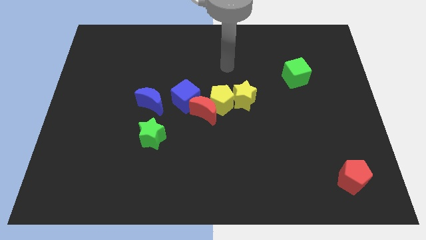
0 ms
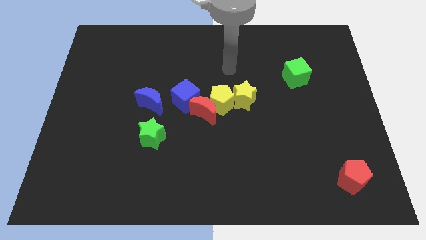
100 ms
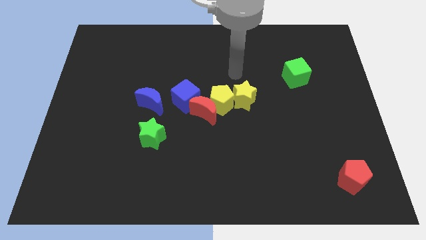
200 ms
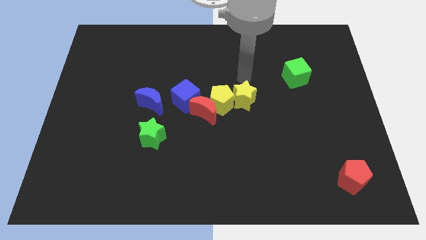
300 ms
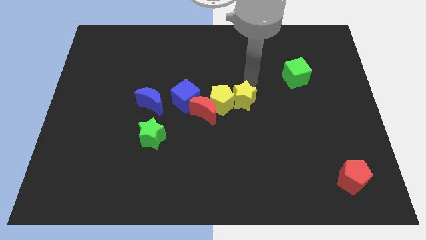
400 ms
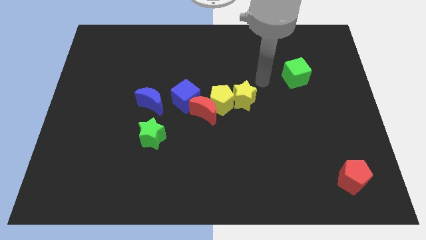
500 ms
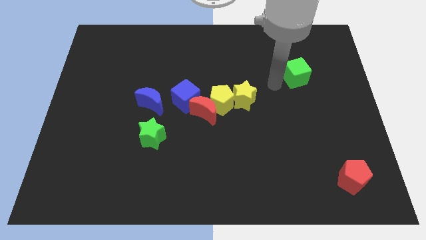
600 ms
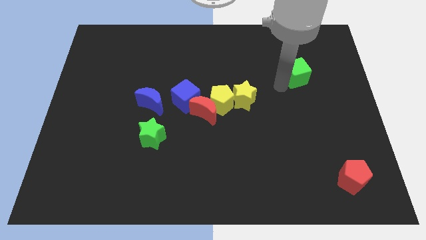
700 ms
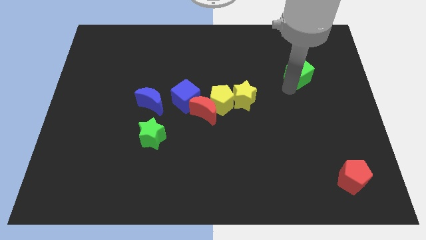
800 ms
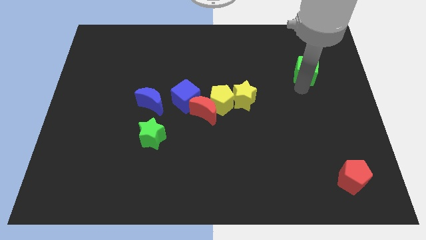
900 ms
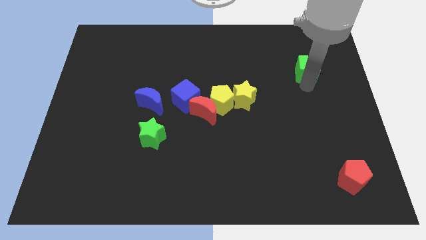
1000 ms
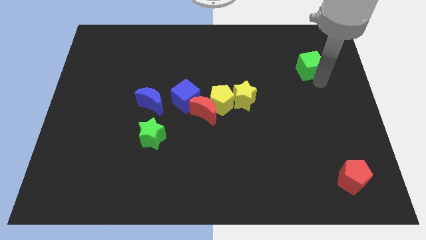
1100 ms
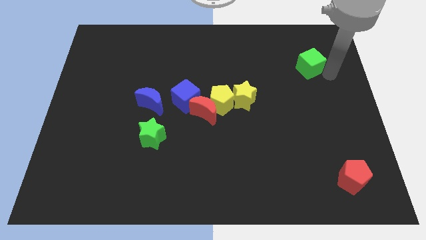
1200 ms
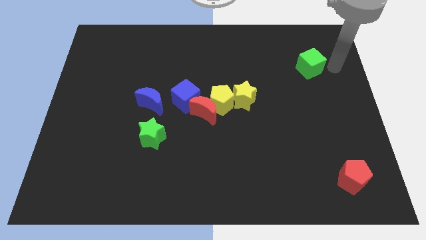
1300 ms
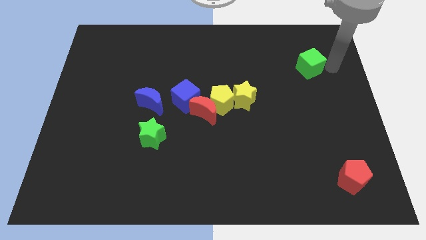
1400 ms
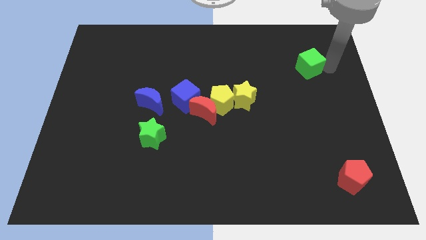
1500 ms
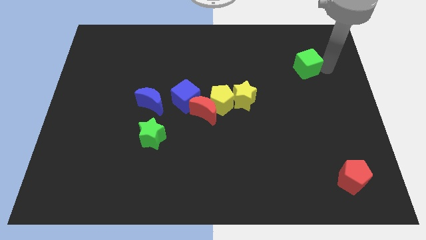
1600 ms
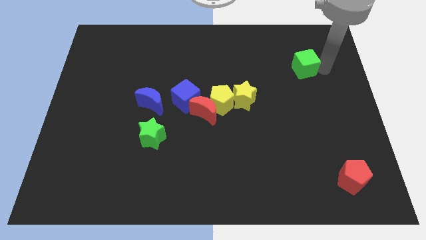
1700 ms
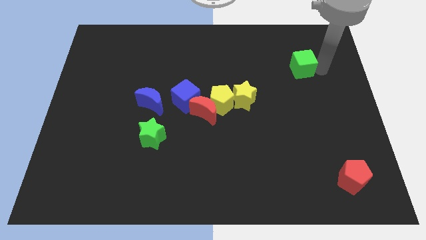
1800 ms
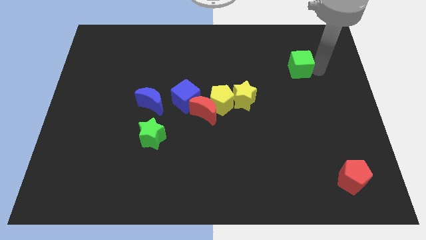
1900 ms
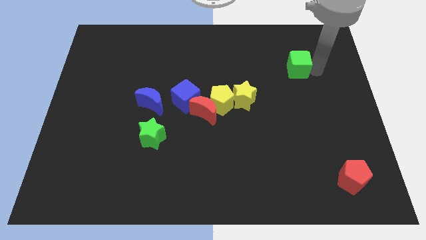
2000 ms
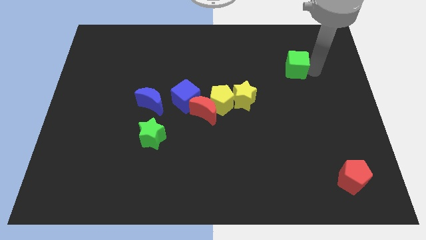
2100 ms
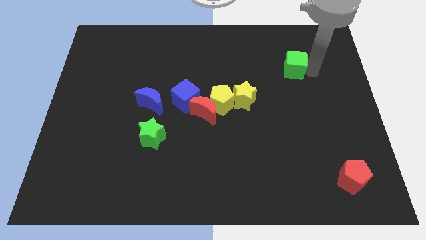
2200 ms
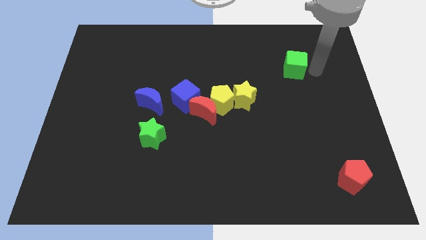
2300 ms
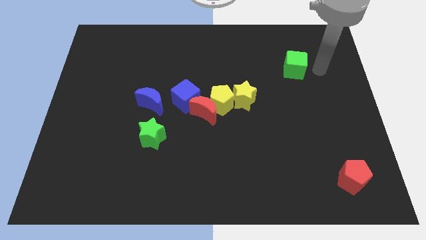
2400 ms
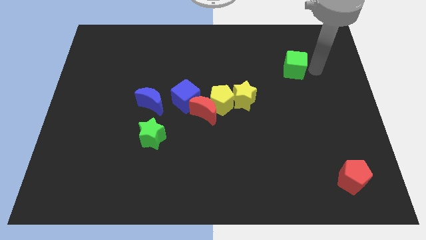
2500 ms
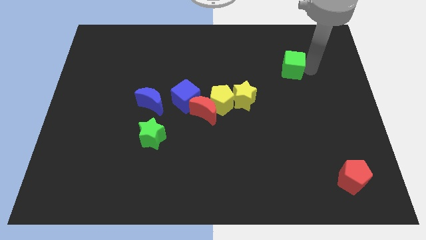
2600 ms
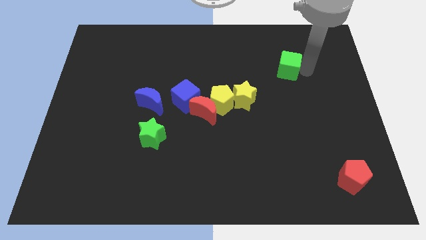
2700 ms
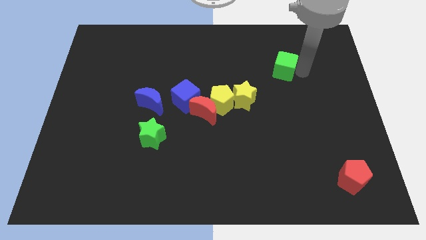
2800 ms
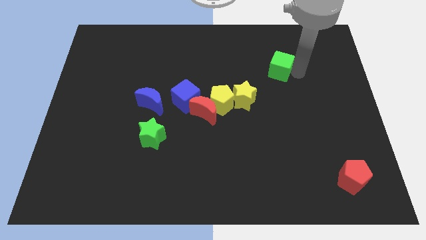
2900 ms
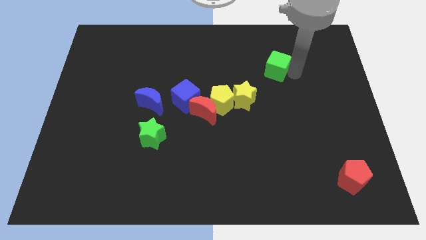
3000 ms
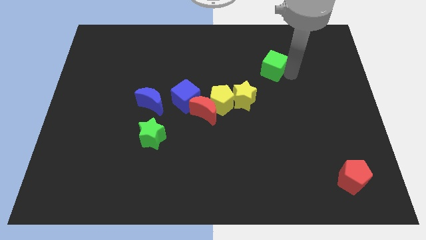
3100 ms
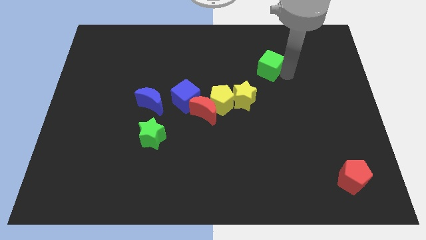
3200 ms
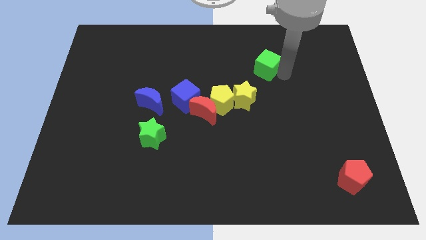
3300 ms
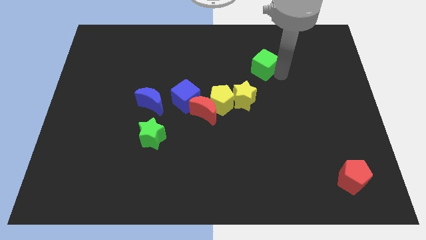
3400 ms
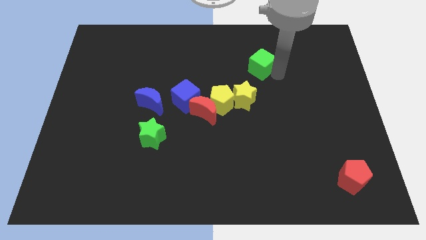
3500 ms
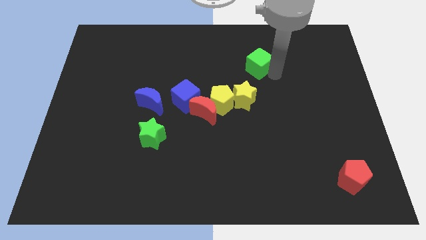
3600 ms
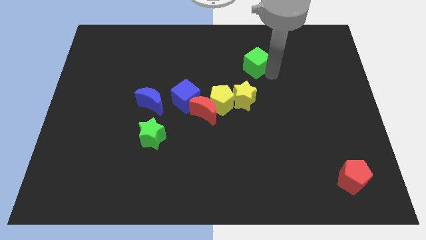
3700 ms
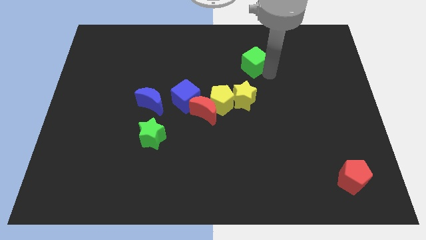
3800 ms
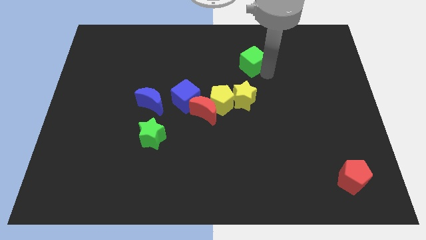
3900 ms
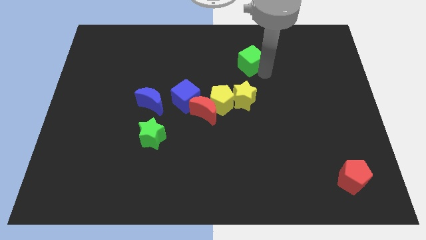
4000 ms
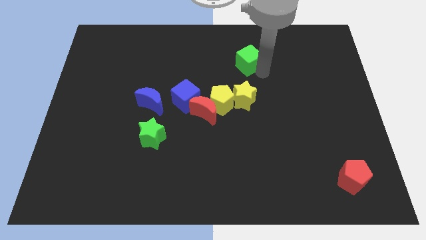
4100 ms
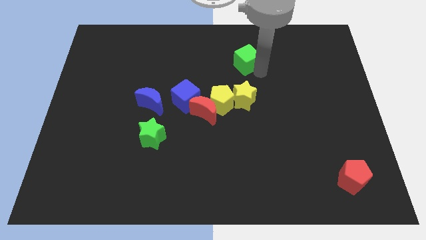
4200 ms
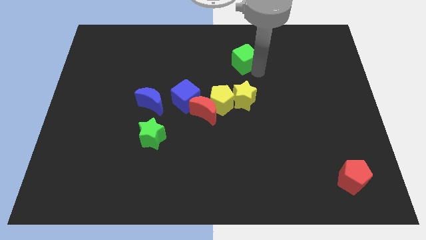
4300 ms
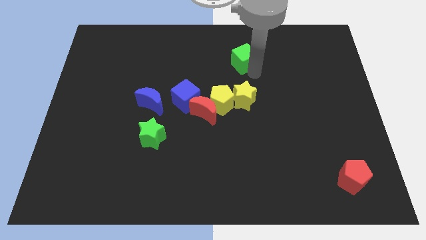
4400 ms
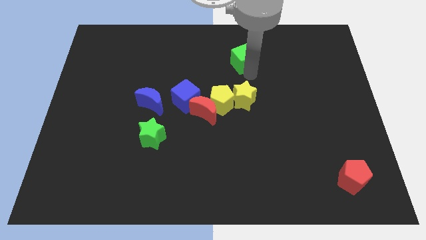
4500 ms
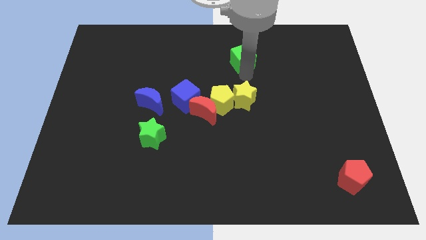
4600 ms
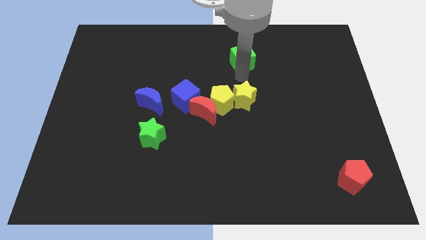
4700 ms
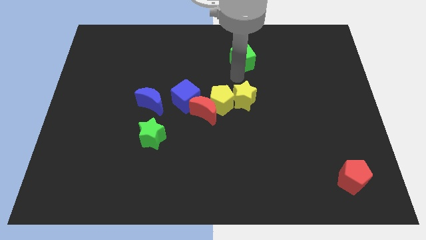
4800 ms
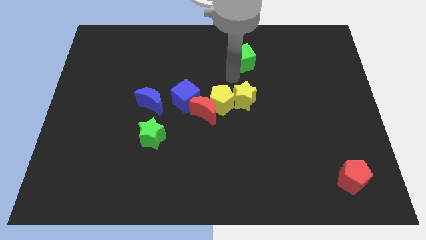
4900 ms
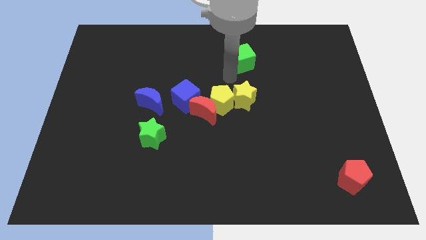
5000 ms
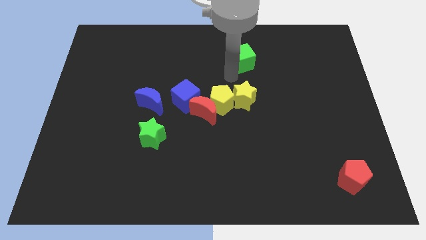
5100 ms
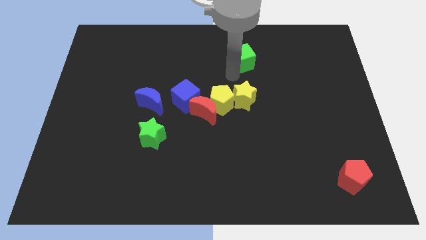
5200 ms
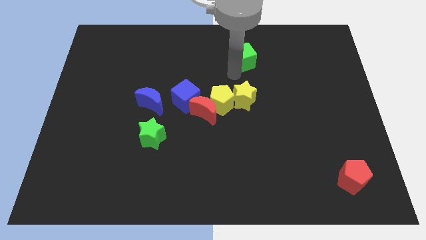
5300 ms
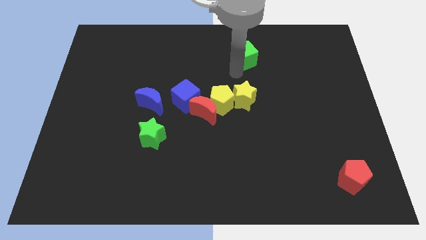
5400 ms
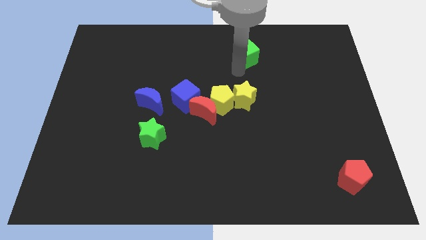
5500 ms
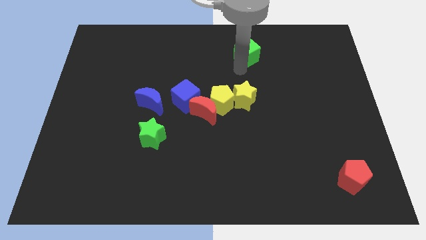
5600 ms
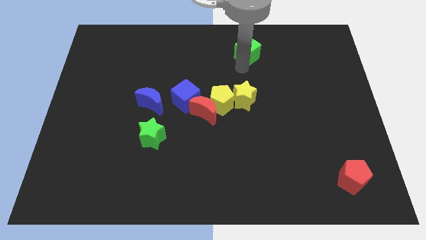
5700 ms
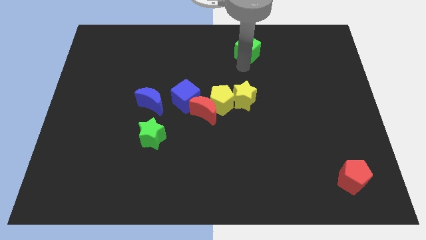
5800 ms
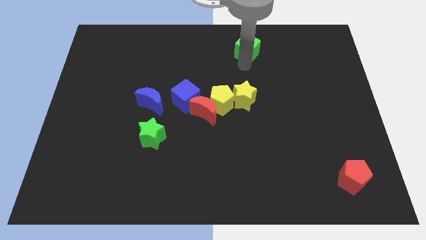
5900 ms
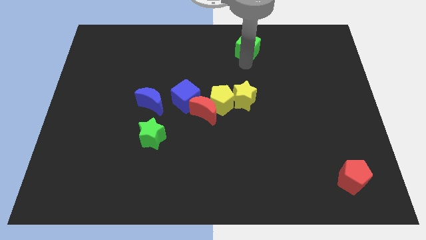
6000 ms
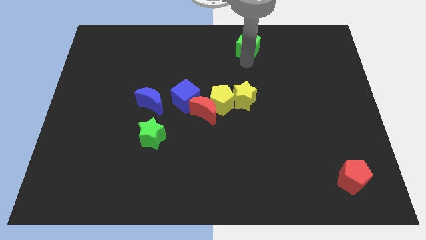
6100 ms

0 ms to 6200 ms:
slide the green cube to the top side

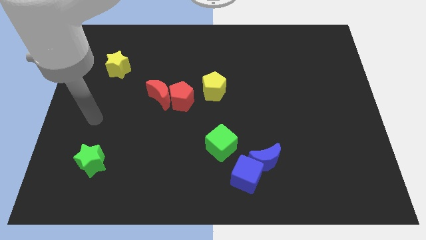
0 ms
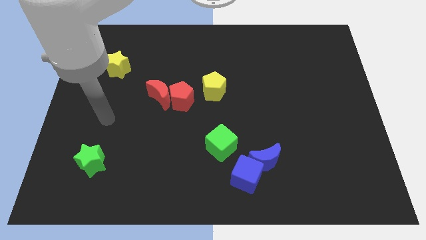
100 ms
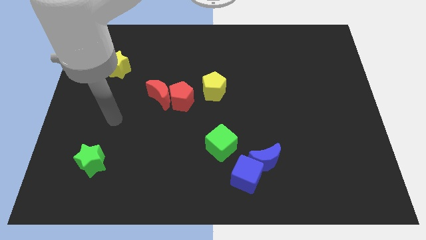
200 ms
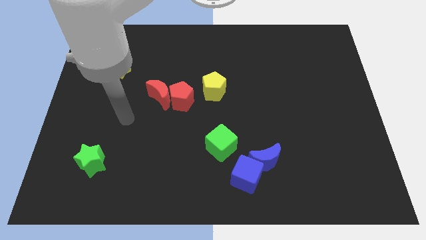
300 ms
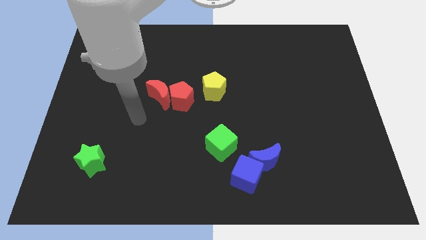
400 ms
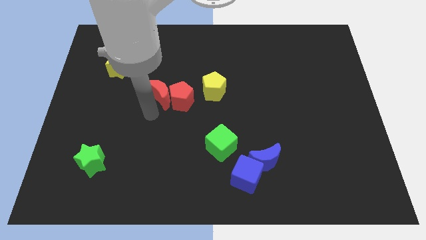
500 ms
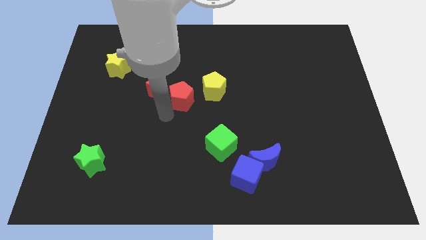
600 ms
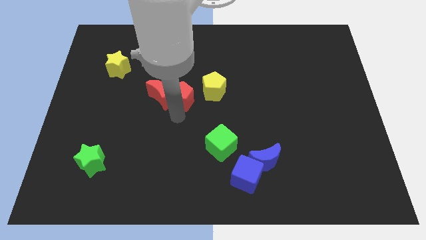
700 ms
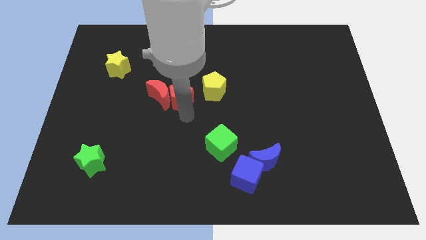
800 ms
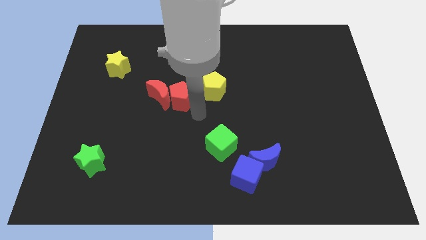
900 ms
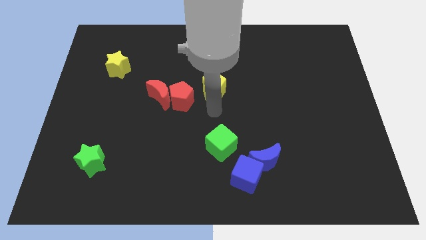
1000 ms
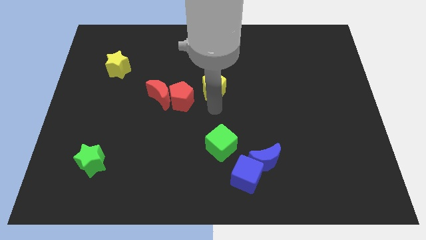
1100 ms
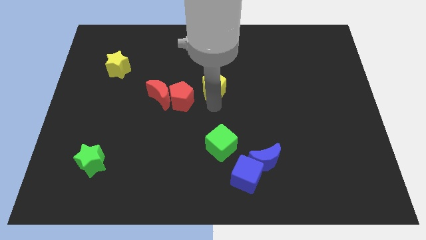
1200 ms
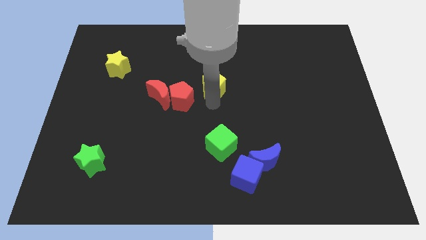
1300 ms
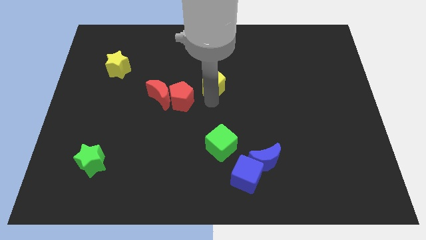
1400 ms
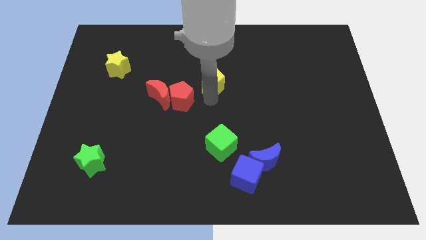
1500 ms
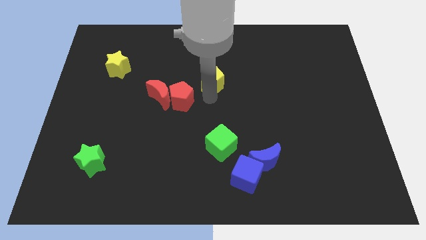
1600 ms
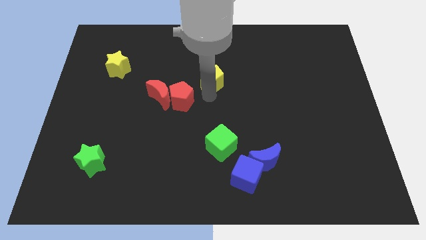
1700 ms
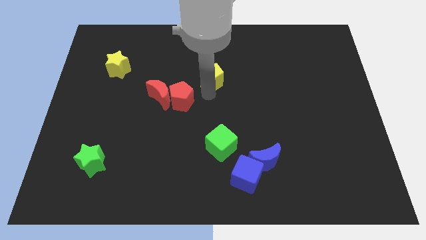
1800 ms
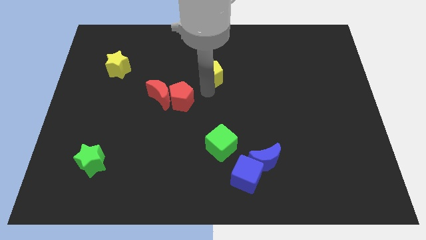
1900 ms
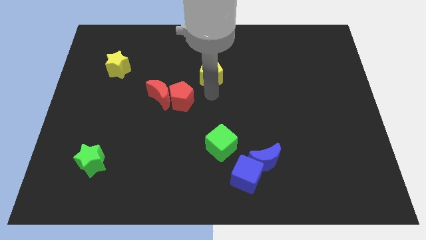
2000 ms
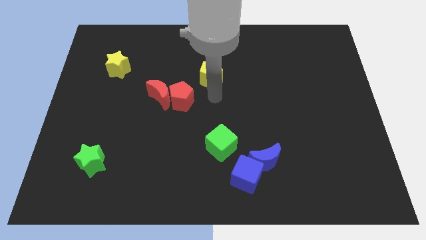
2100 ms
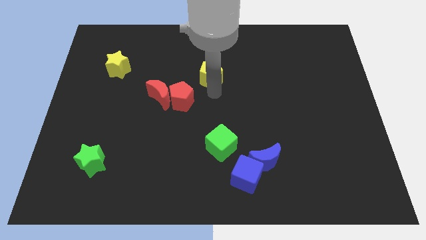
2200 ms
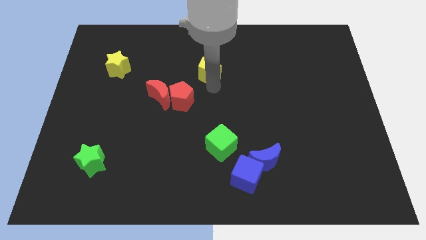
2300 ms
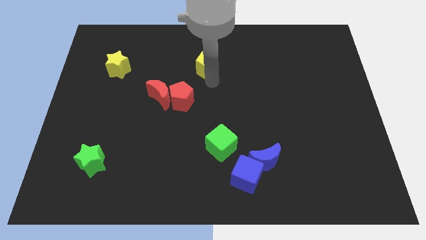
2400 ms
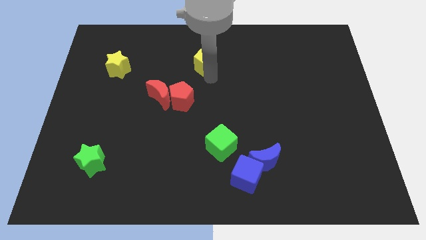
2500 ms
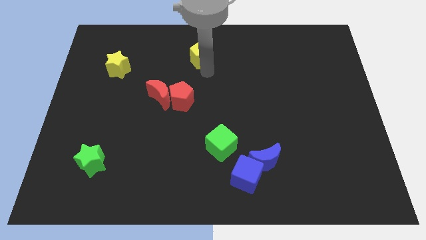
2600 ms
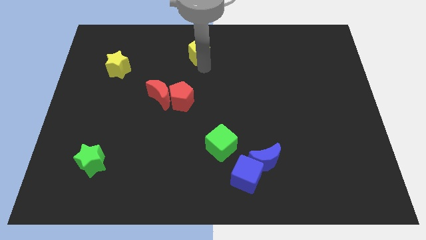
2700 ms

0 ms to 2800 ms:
push the yellow pentagon to the top side
